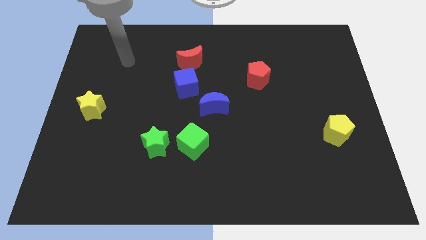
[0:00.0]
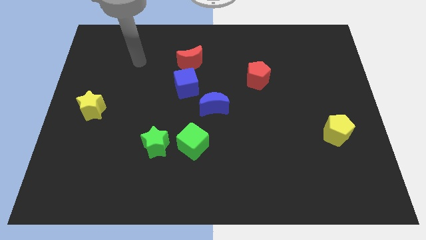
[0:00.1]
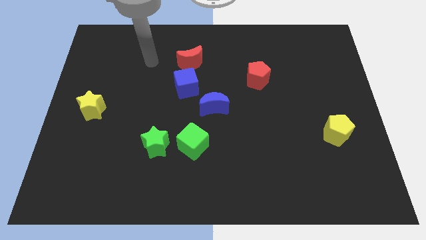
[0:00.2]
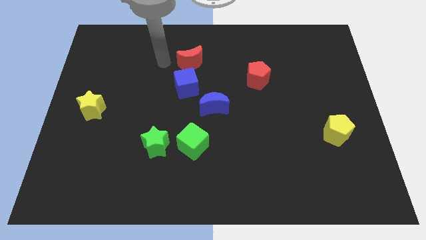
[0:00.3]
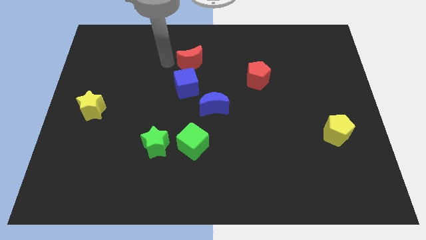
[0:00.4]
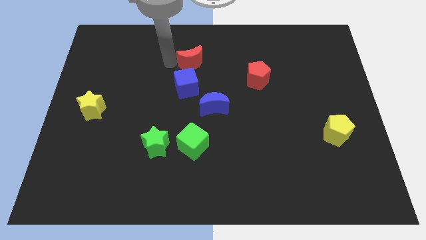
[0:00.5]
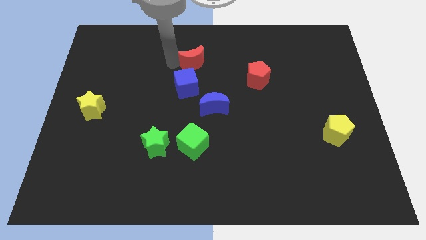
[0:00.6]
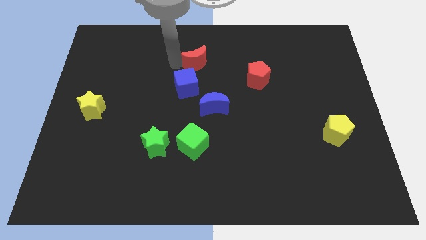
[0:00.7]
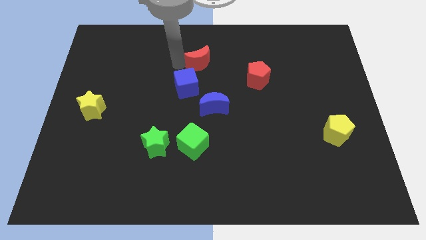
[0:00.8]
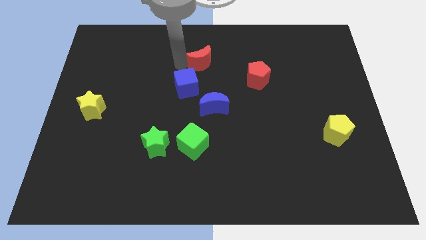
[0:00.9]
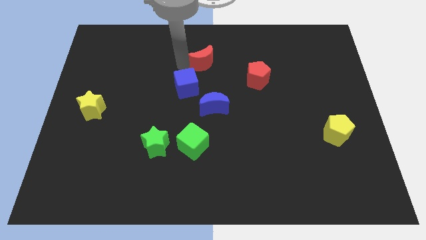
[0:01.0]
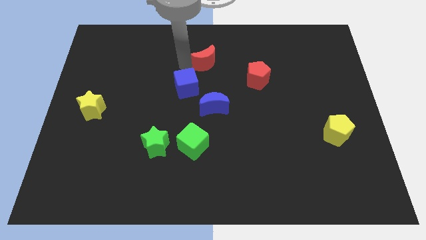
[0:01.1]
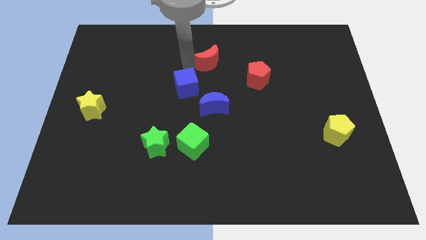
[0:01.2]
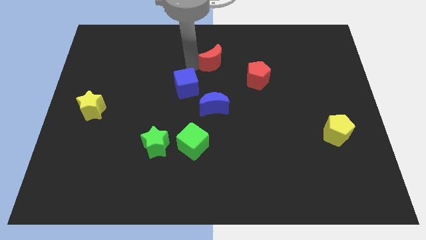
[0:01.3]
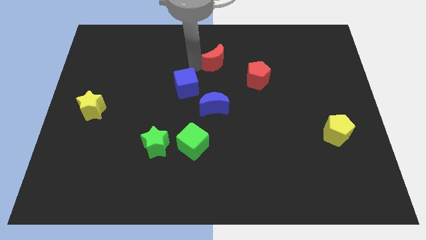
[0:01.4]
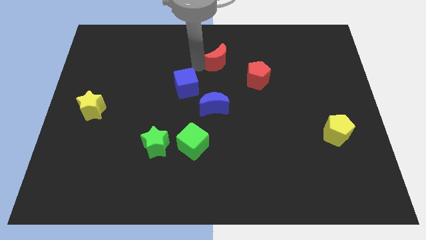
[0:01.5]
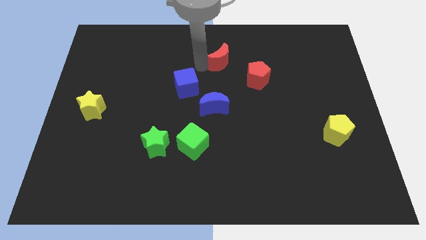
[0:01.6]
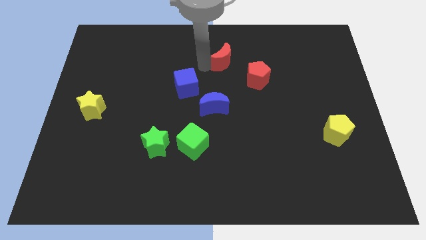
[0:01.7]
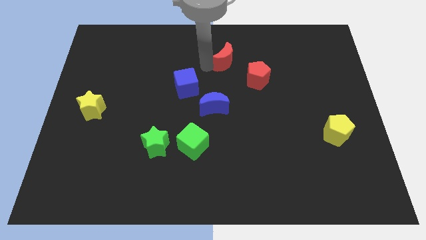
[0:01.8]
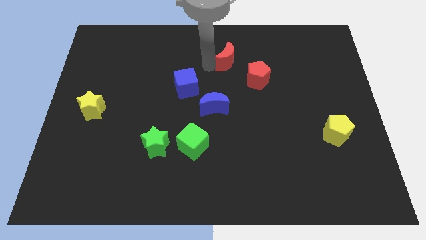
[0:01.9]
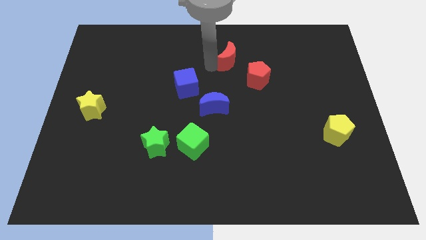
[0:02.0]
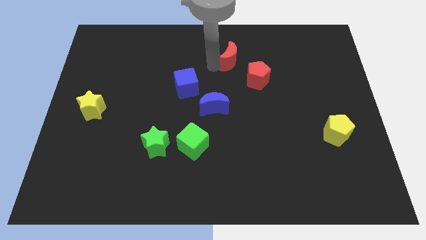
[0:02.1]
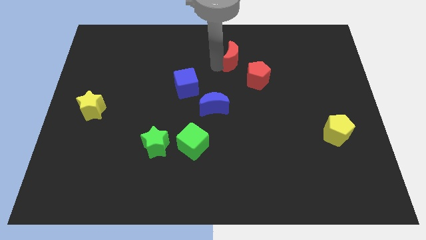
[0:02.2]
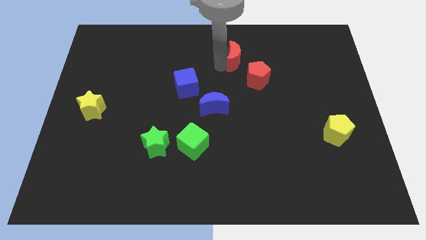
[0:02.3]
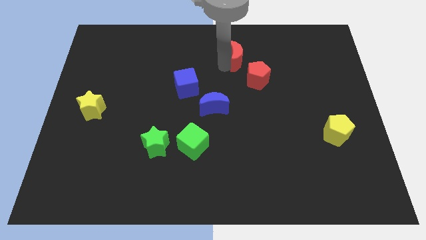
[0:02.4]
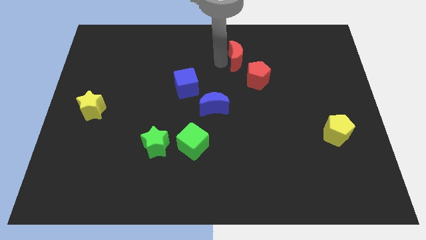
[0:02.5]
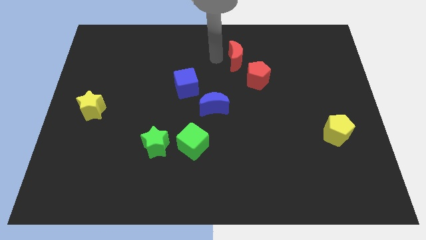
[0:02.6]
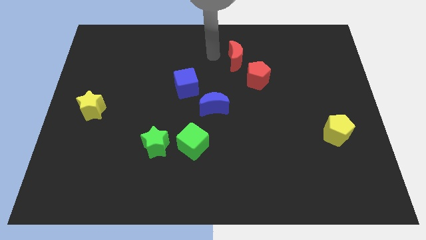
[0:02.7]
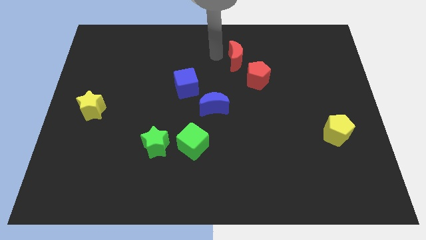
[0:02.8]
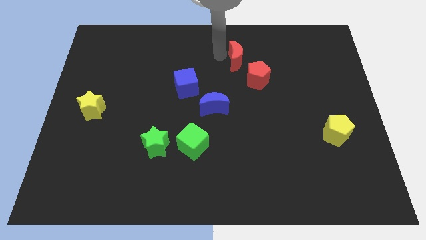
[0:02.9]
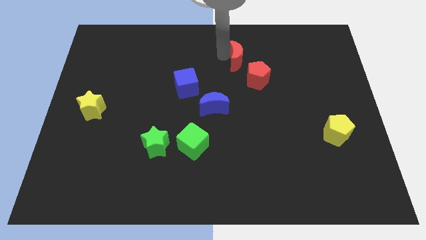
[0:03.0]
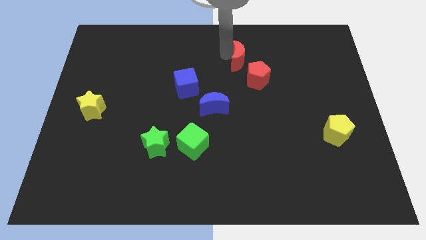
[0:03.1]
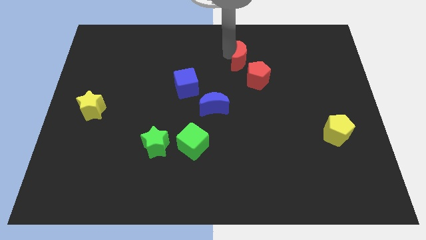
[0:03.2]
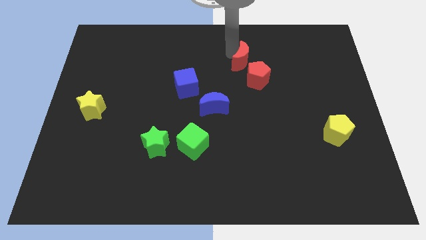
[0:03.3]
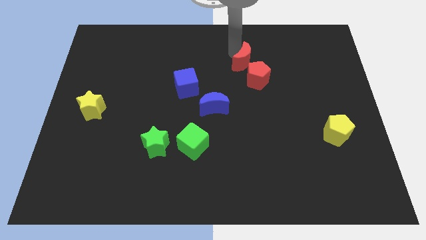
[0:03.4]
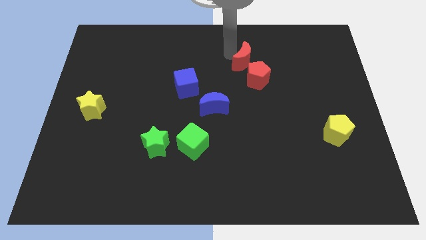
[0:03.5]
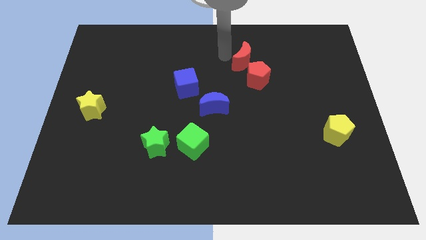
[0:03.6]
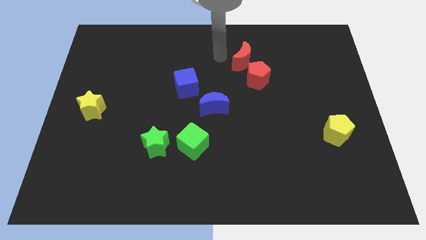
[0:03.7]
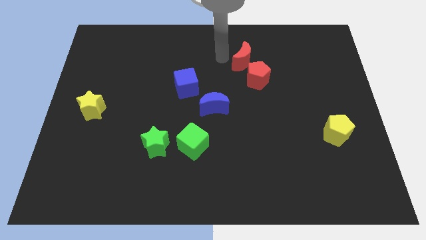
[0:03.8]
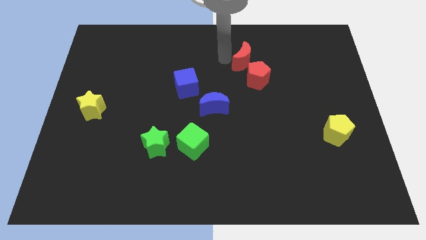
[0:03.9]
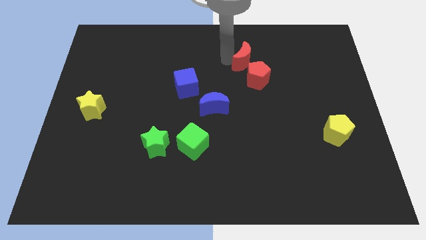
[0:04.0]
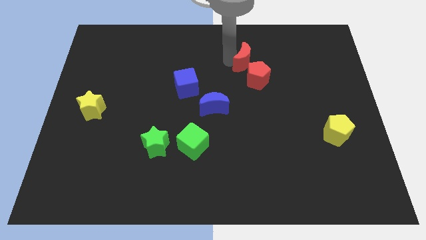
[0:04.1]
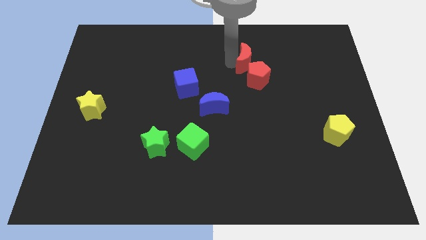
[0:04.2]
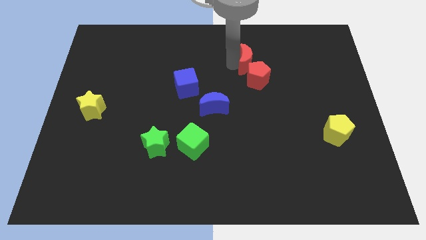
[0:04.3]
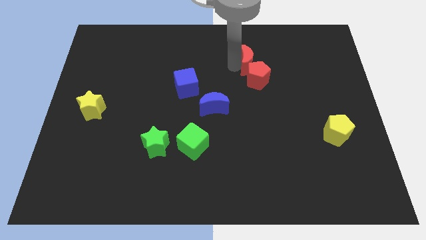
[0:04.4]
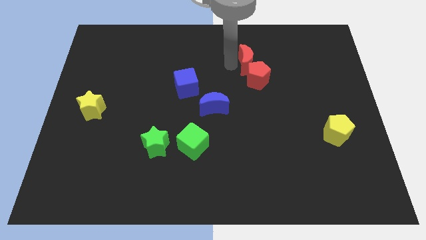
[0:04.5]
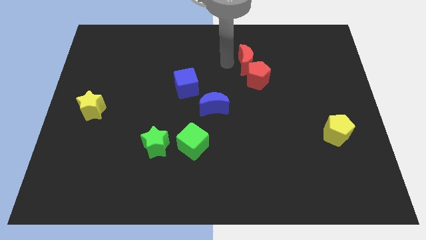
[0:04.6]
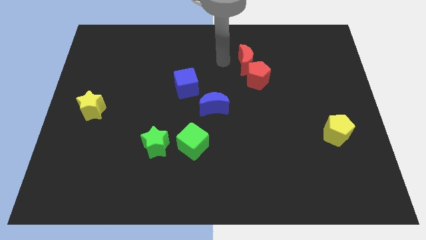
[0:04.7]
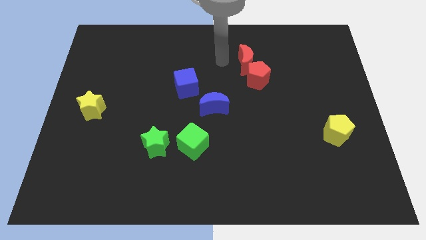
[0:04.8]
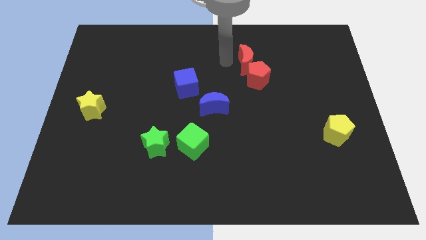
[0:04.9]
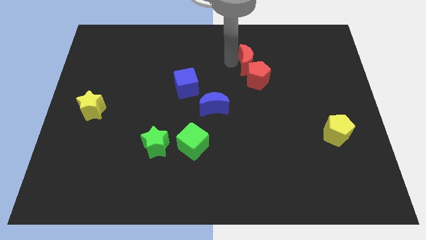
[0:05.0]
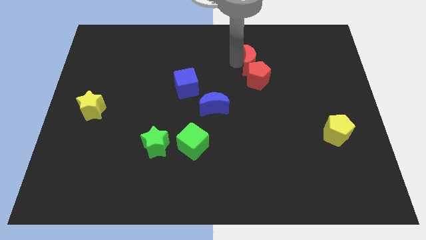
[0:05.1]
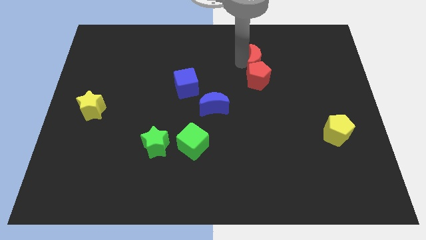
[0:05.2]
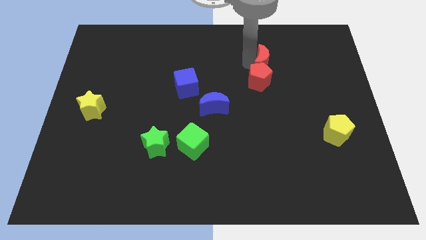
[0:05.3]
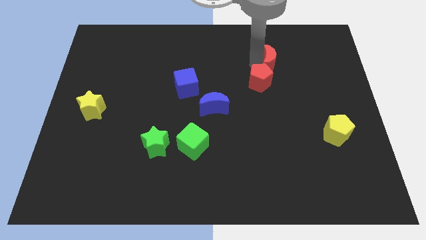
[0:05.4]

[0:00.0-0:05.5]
push the red moon right

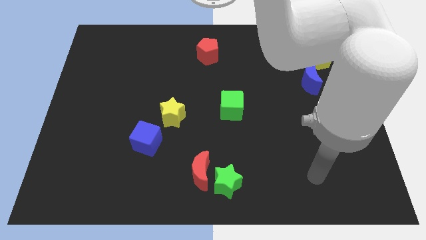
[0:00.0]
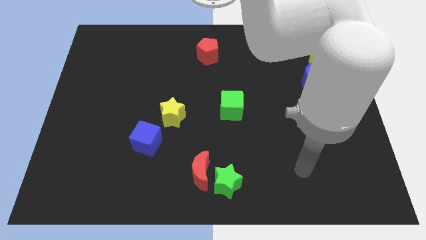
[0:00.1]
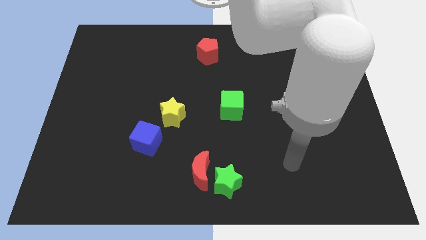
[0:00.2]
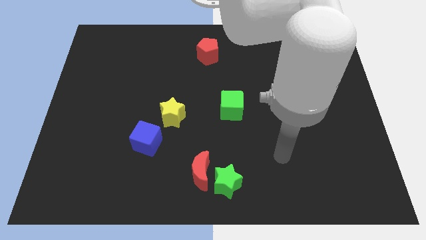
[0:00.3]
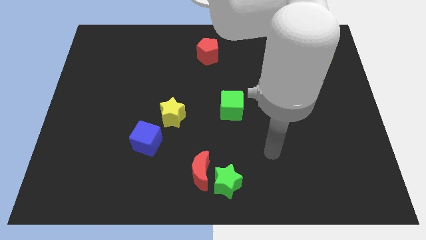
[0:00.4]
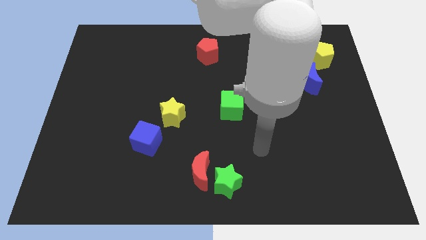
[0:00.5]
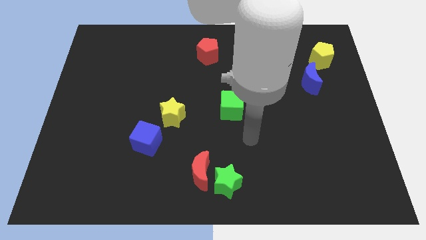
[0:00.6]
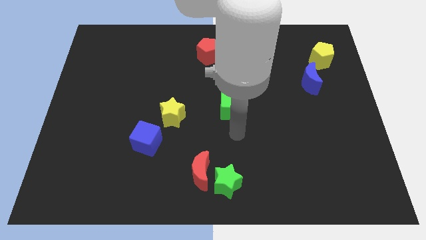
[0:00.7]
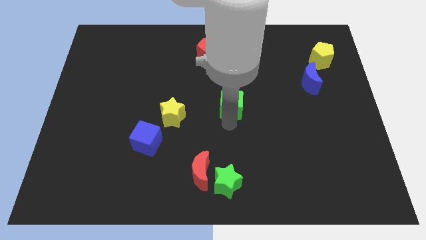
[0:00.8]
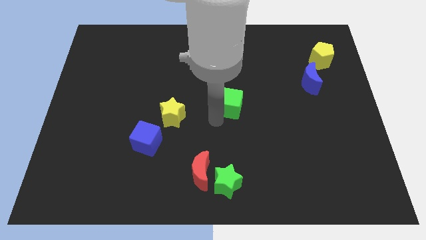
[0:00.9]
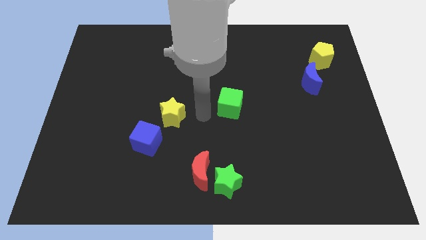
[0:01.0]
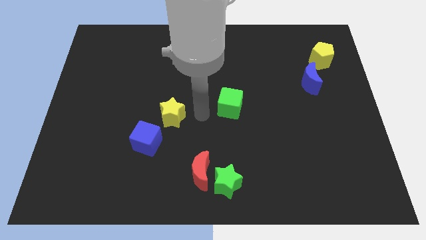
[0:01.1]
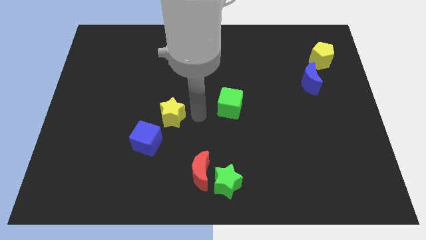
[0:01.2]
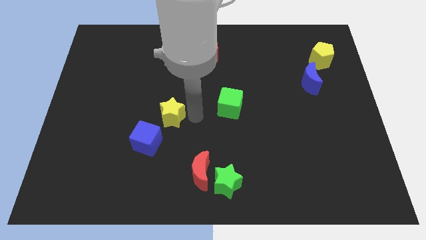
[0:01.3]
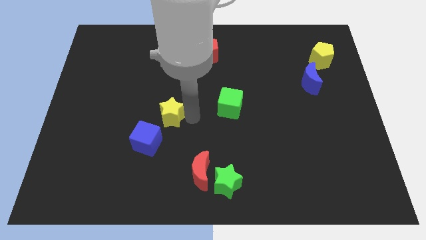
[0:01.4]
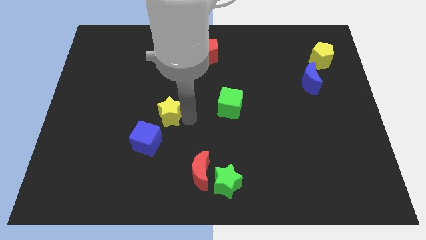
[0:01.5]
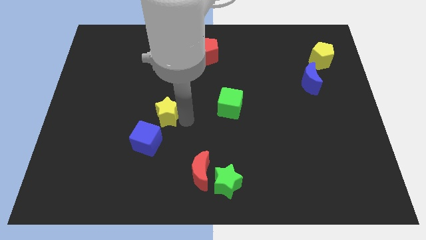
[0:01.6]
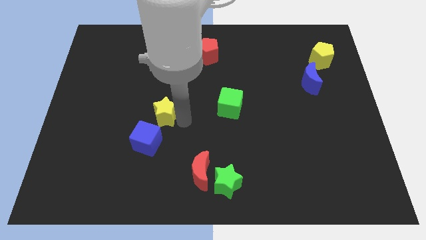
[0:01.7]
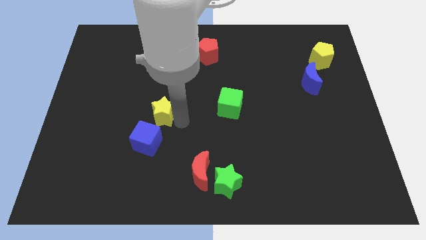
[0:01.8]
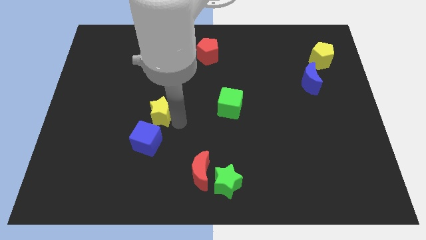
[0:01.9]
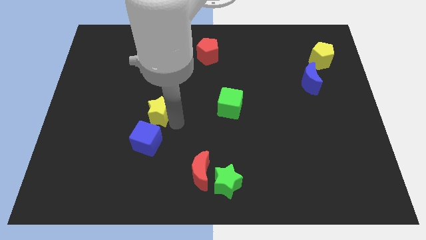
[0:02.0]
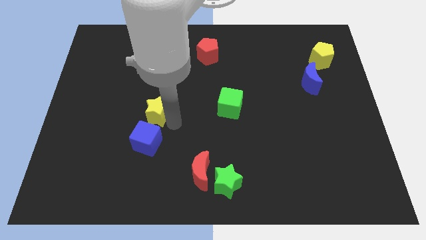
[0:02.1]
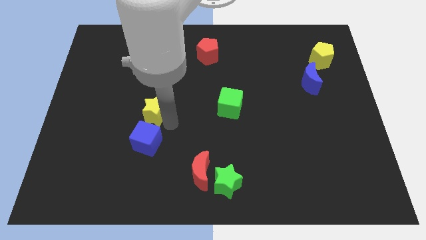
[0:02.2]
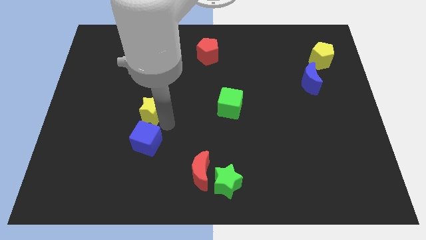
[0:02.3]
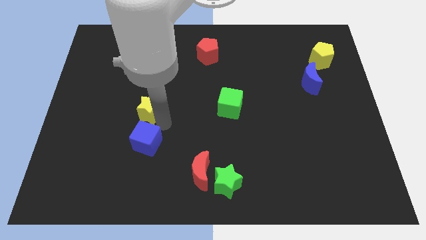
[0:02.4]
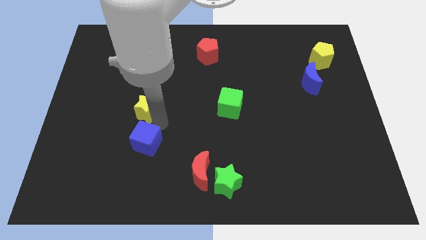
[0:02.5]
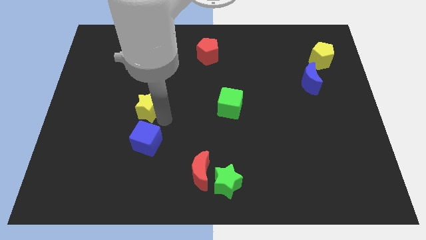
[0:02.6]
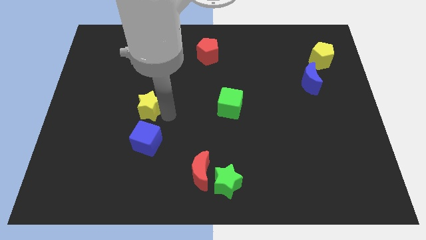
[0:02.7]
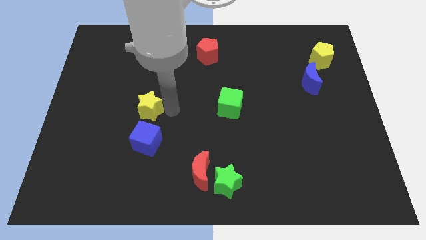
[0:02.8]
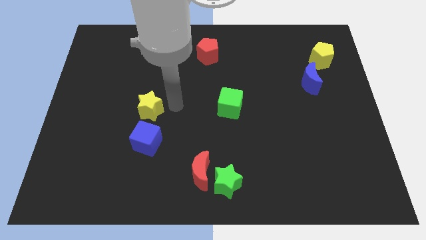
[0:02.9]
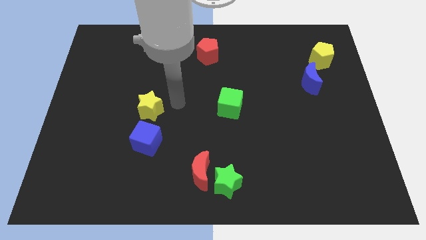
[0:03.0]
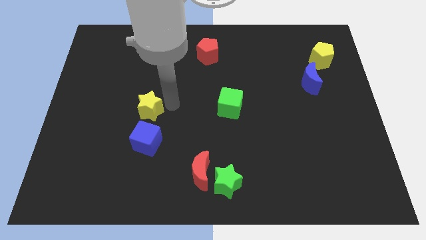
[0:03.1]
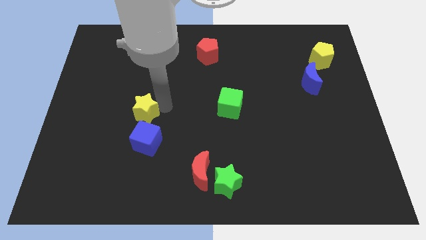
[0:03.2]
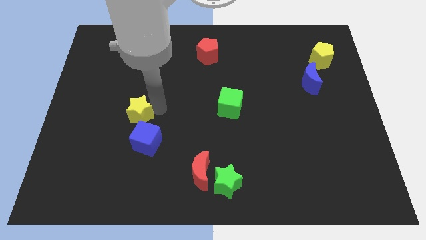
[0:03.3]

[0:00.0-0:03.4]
slide the yellow star a little bit left
